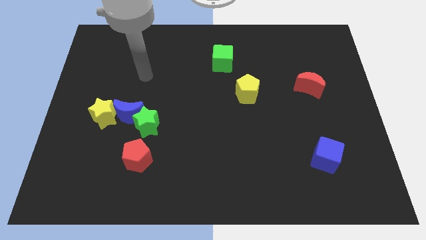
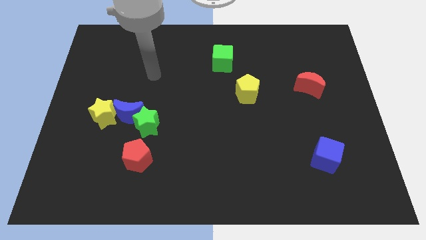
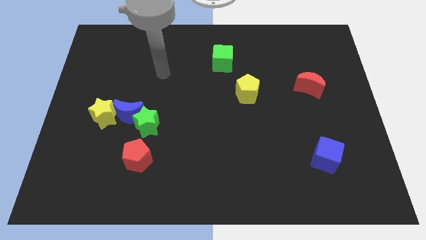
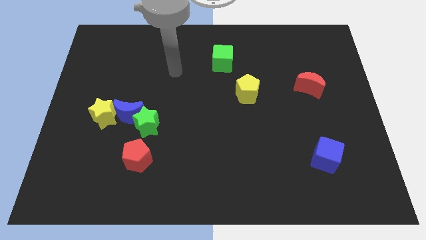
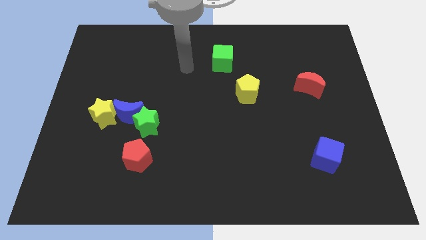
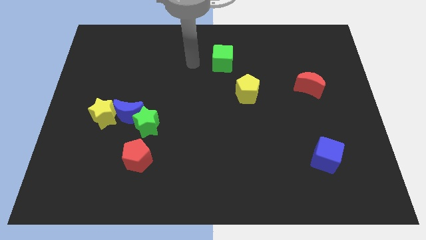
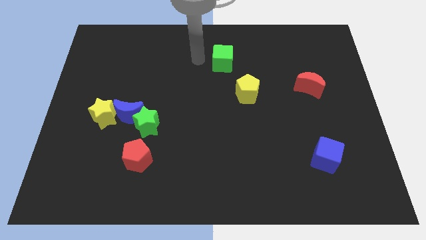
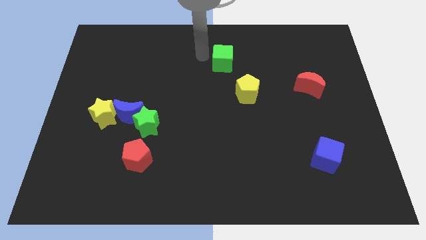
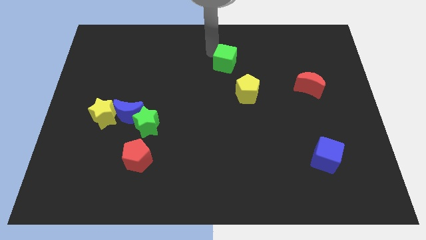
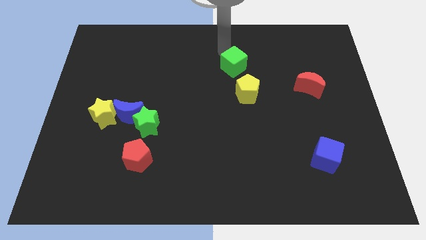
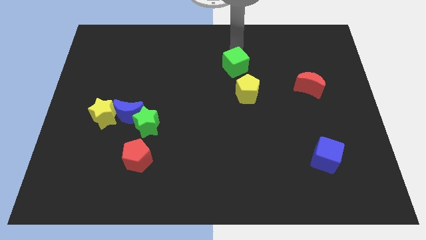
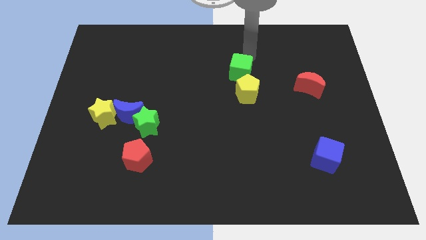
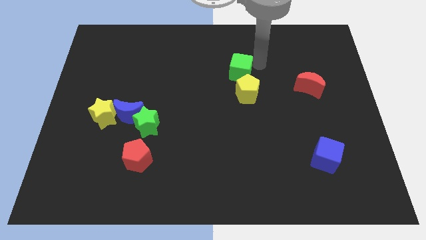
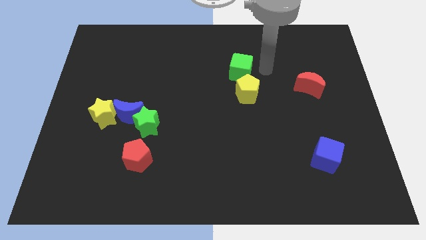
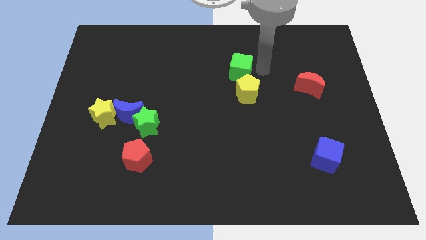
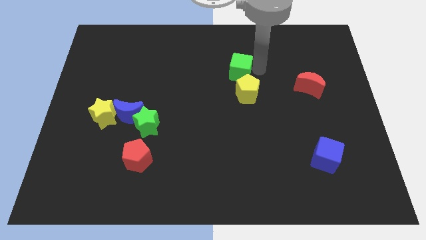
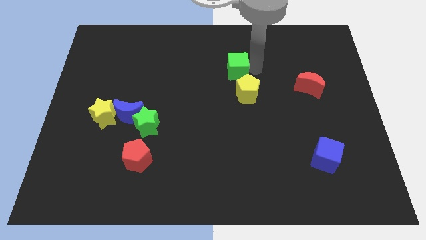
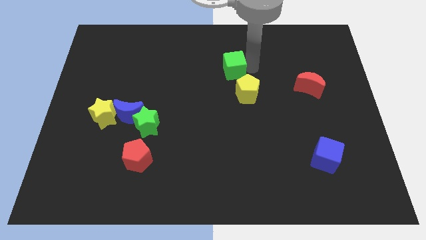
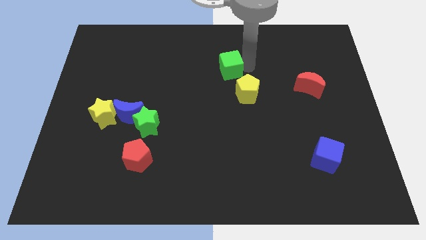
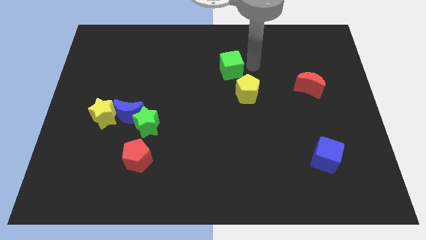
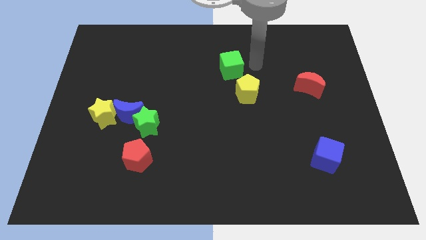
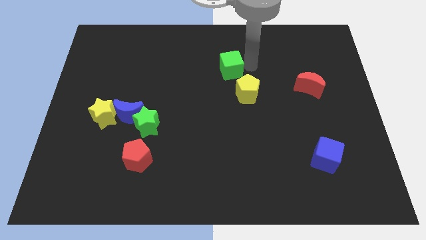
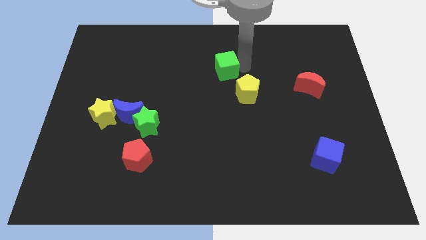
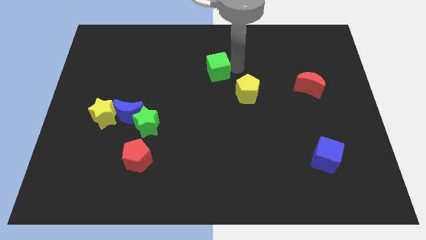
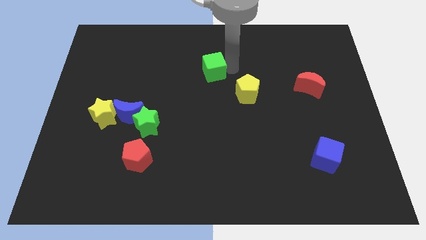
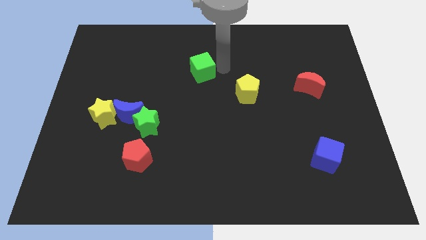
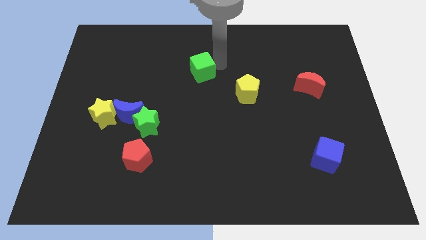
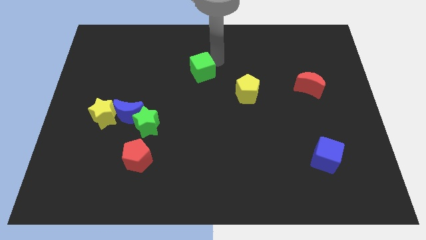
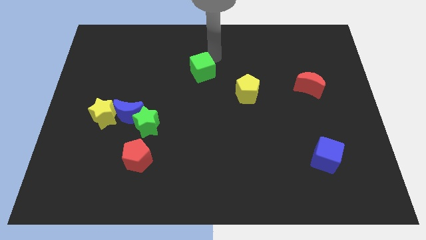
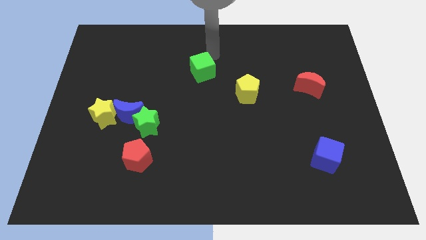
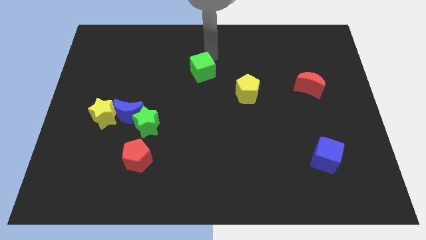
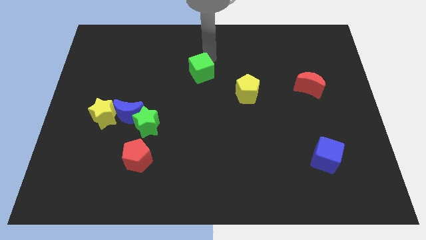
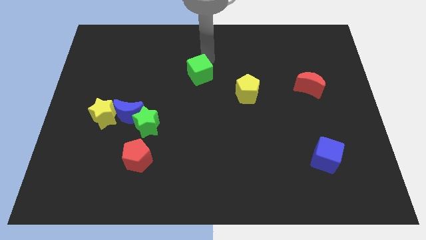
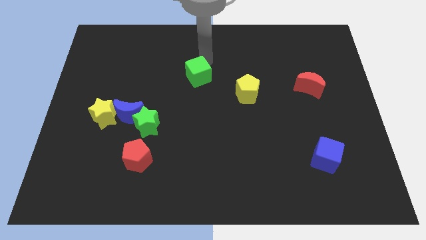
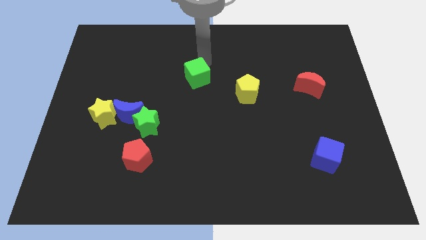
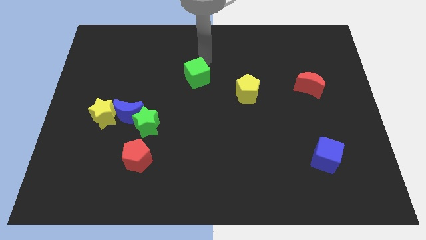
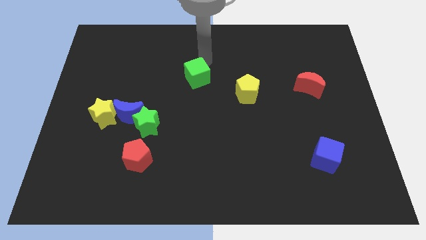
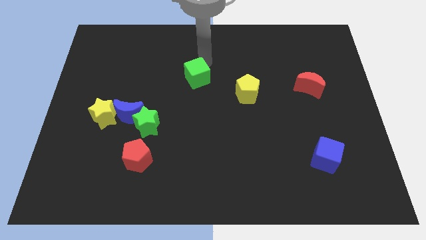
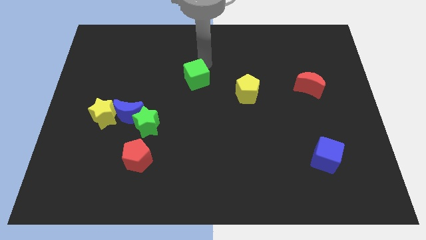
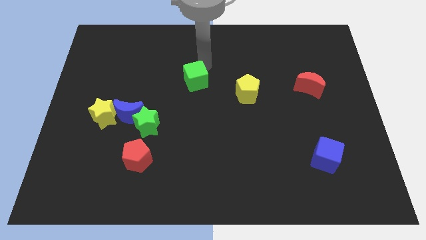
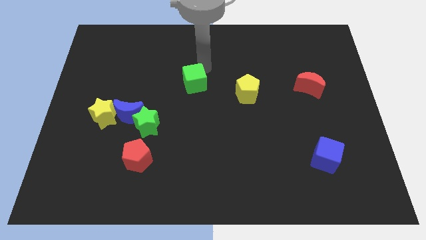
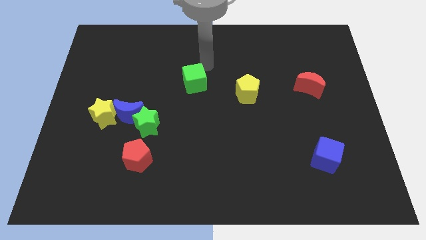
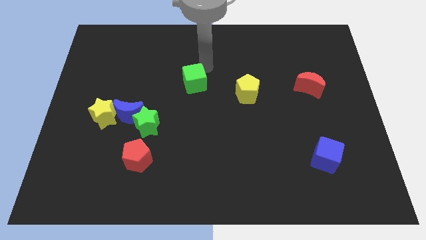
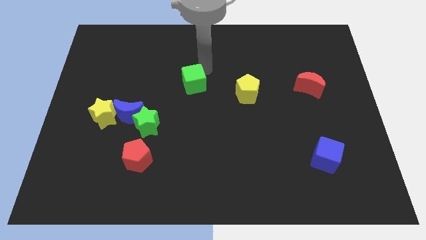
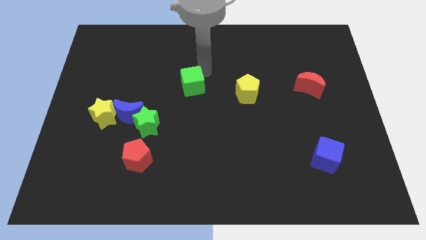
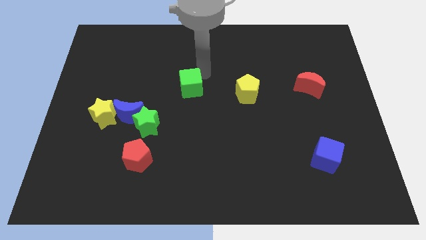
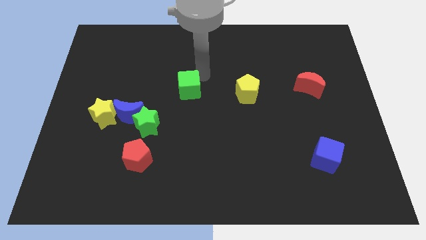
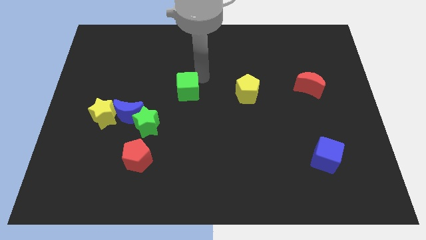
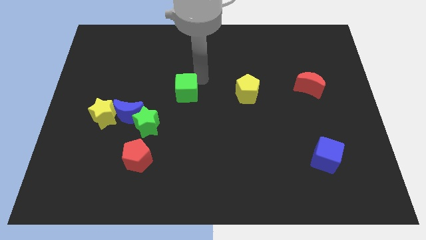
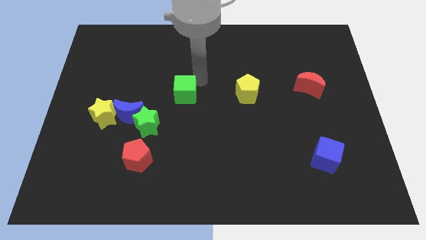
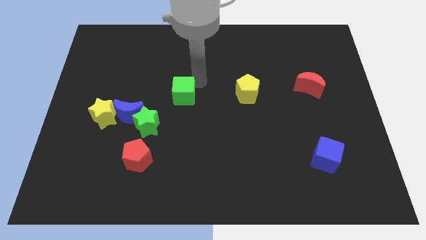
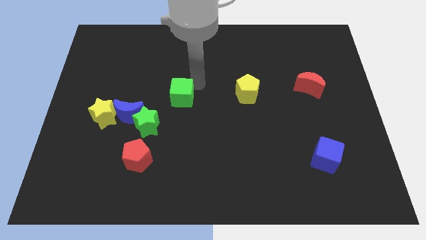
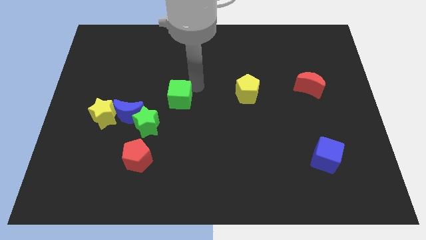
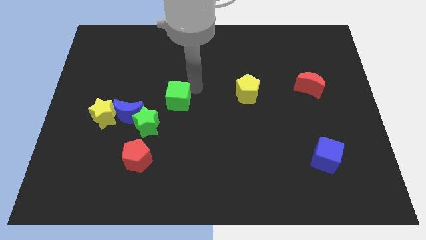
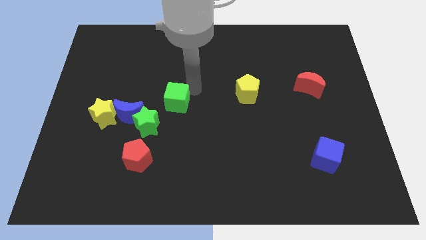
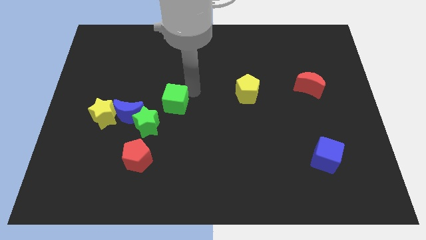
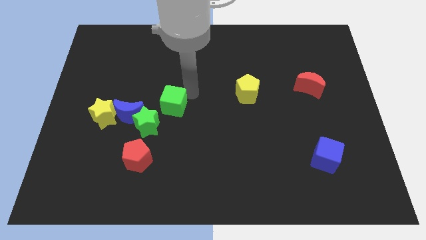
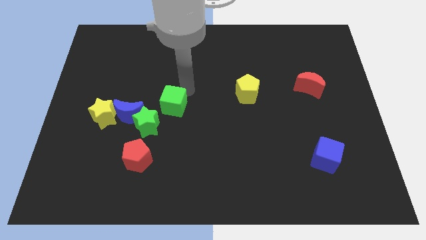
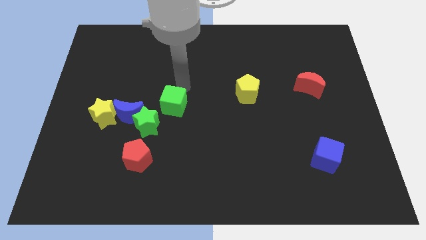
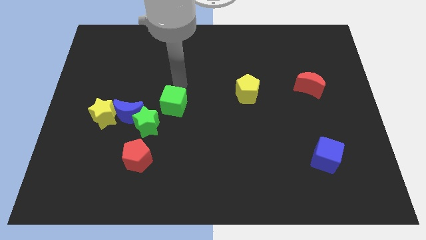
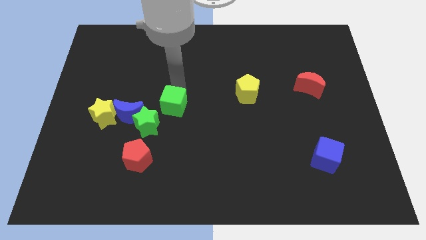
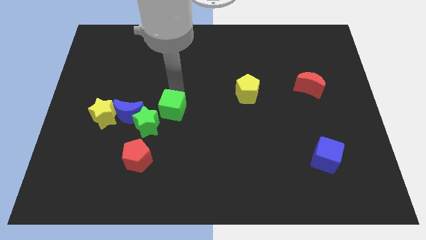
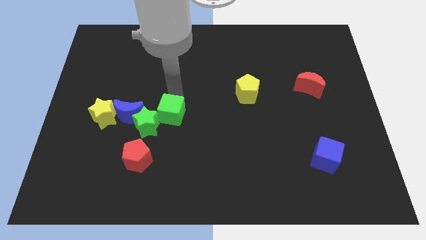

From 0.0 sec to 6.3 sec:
push the green cube down and then left

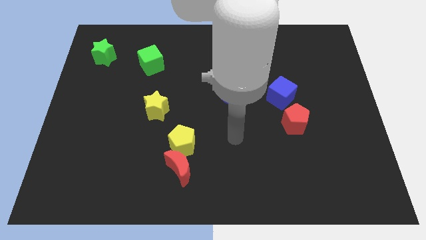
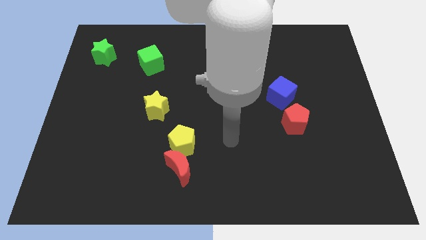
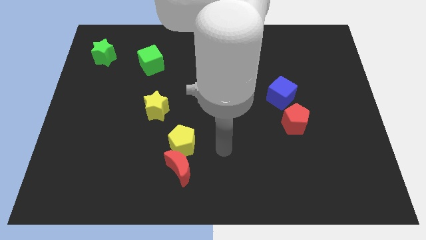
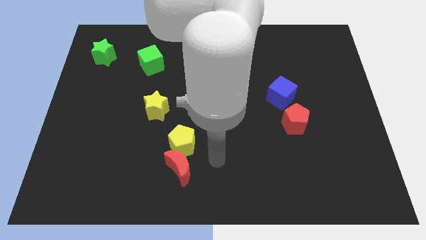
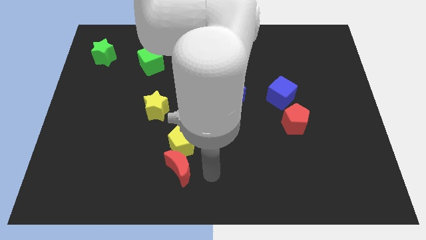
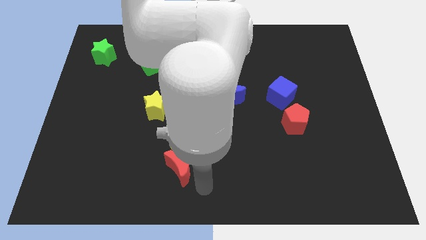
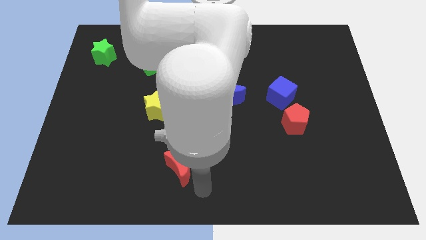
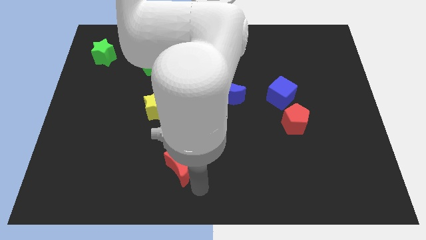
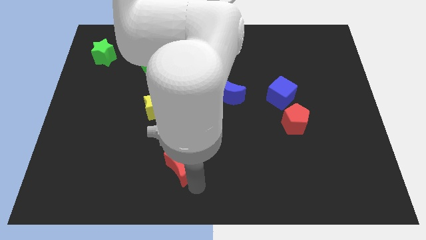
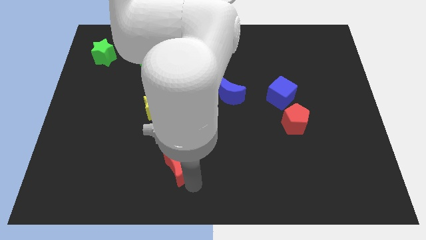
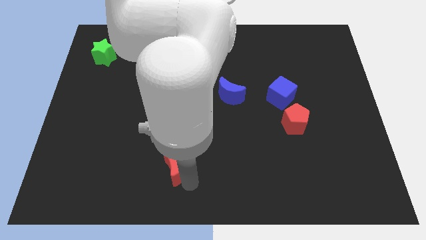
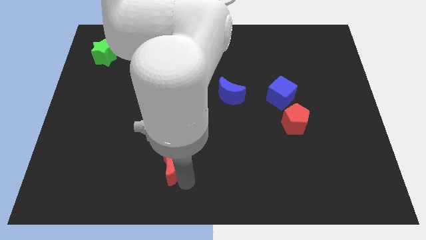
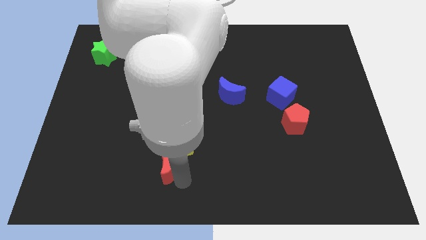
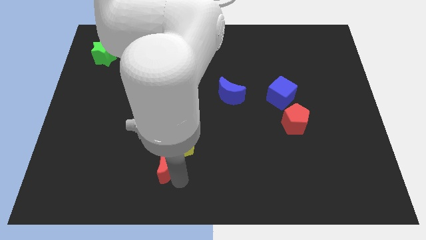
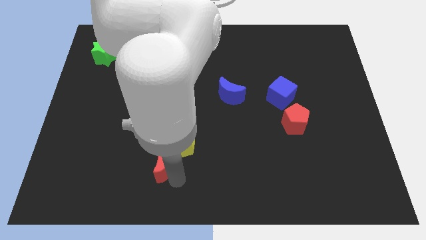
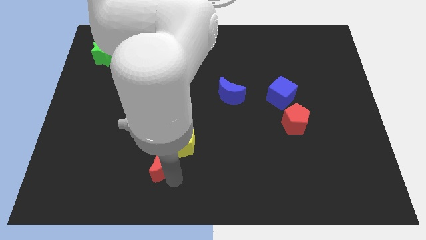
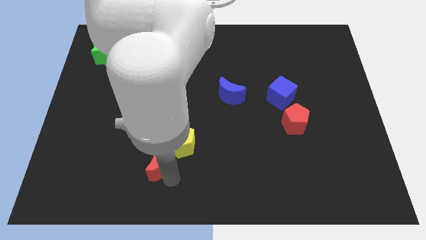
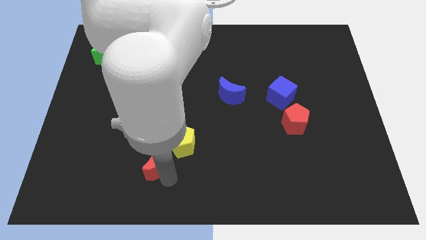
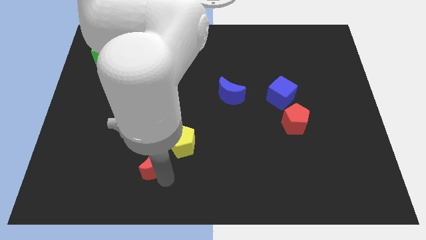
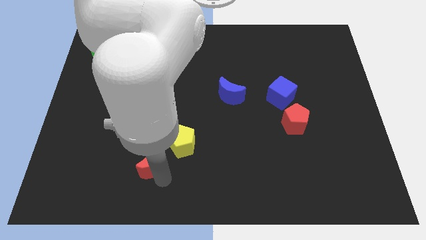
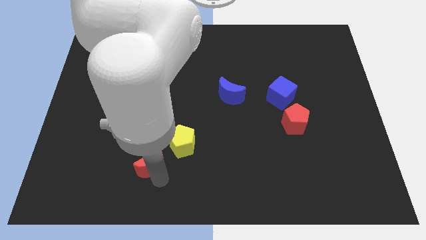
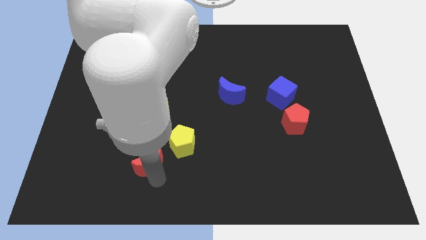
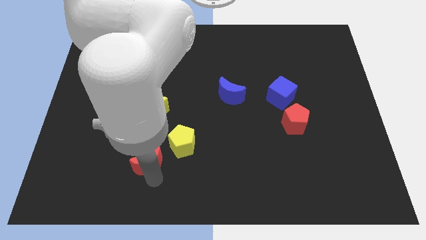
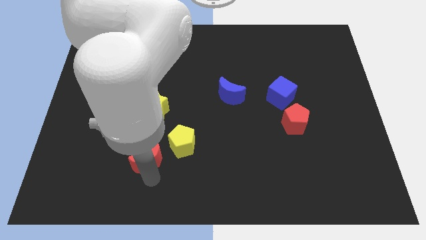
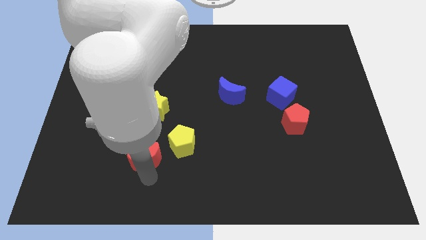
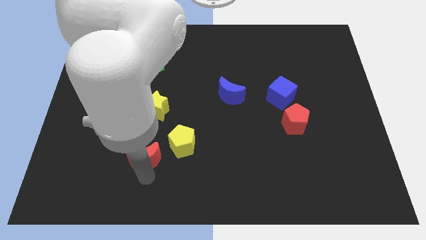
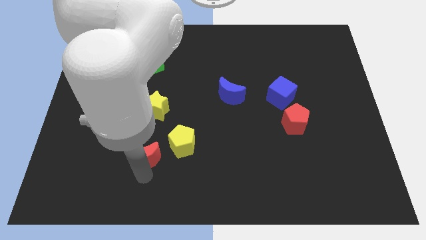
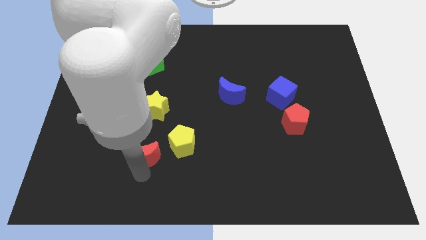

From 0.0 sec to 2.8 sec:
slide the red moon upwards and then left slightly
